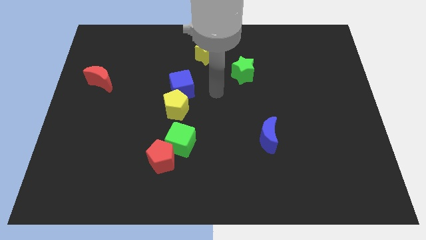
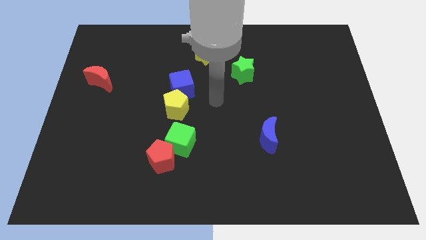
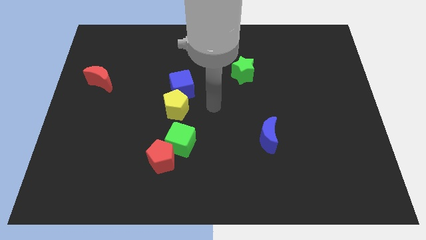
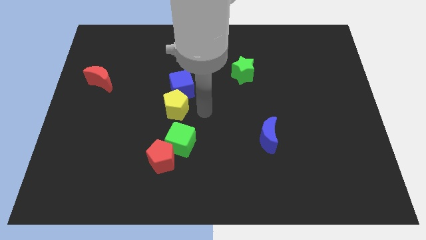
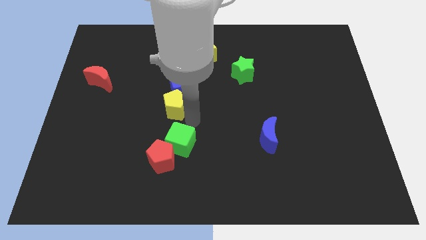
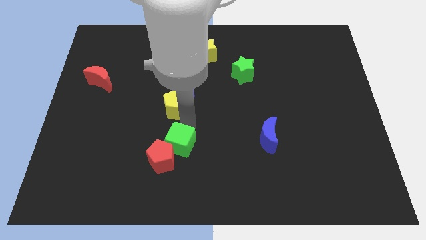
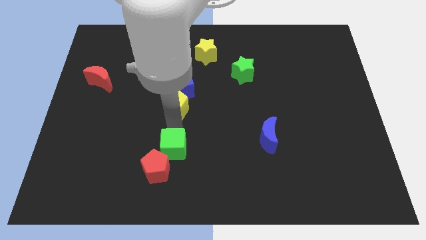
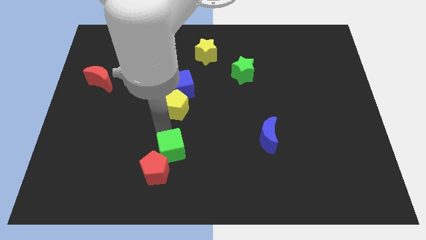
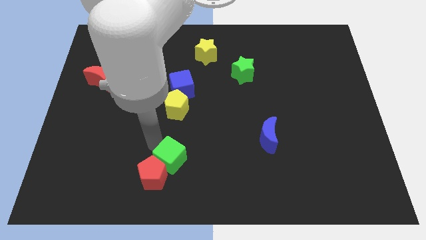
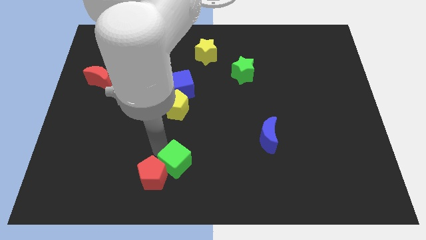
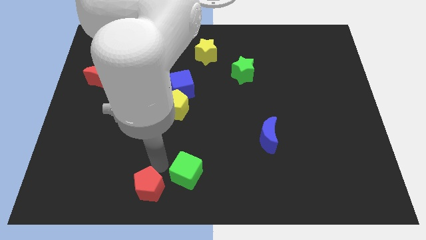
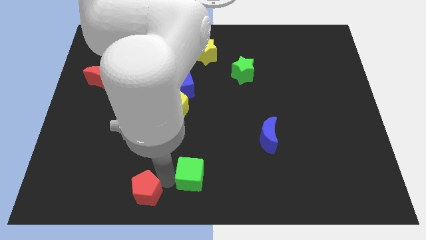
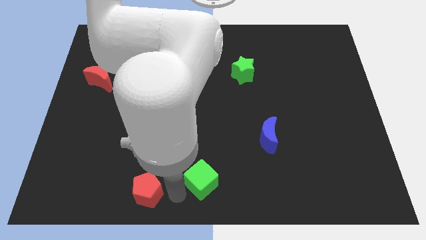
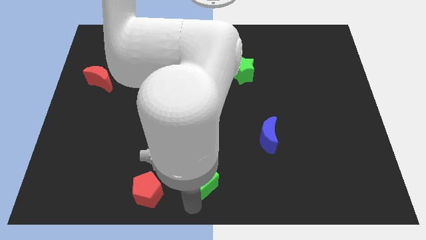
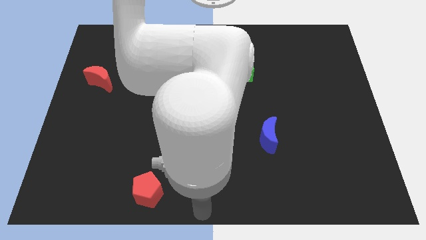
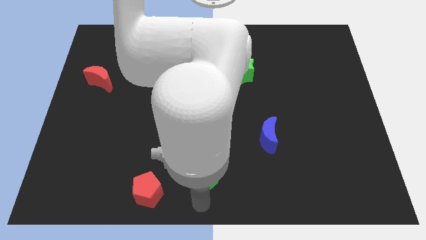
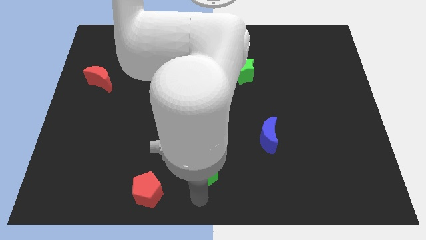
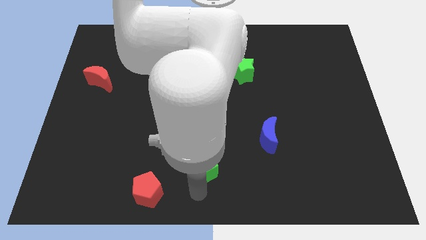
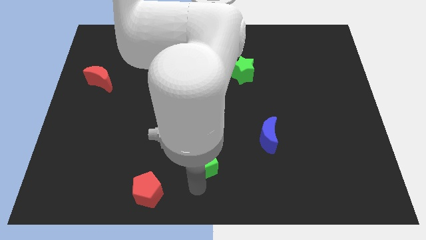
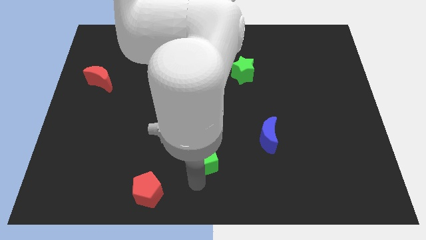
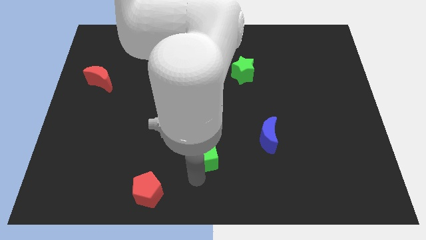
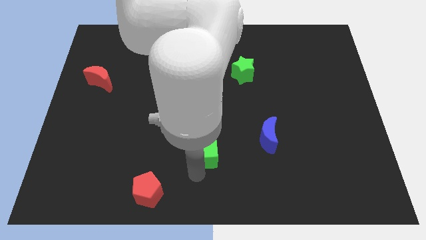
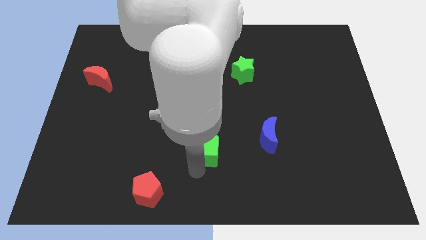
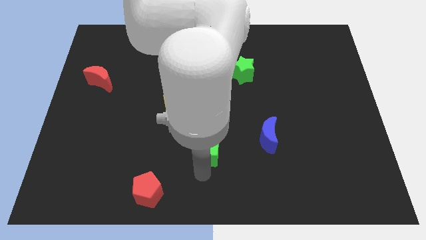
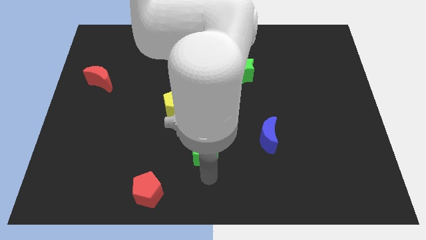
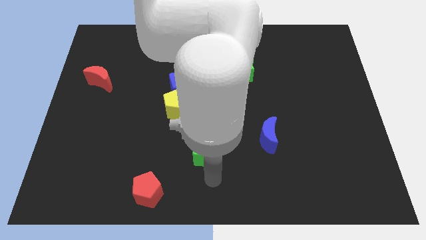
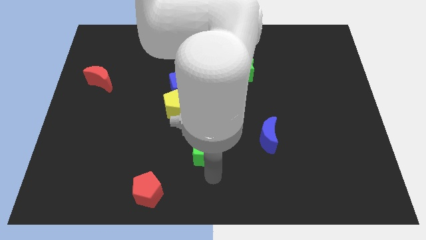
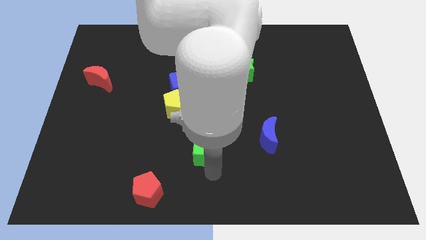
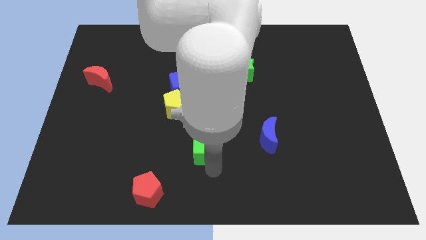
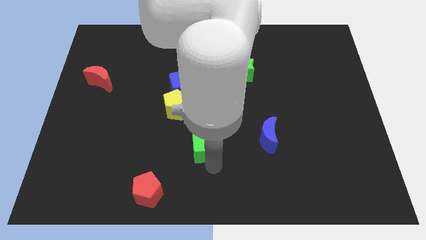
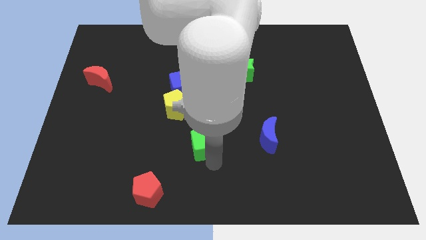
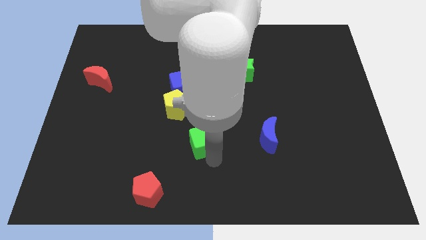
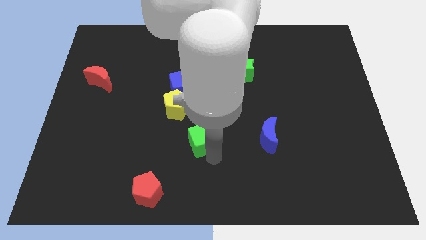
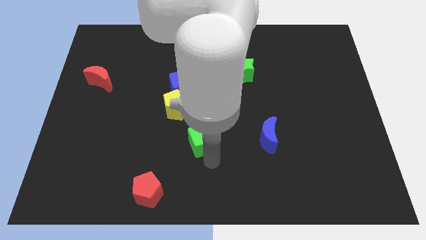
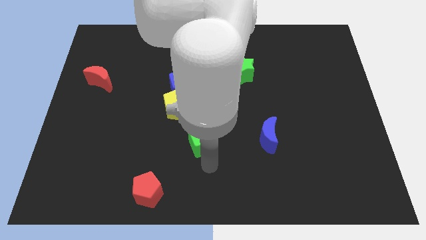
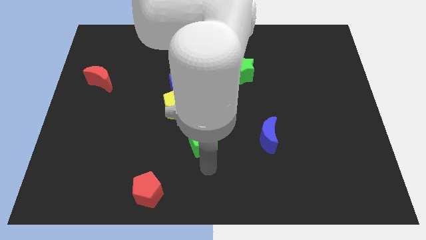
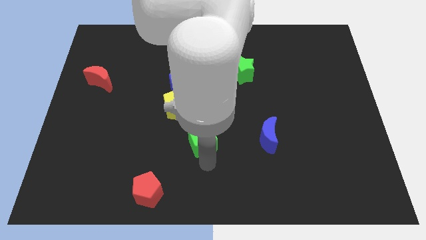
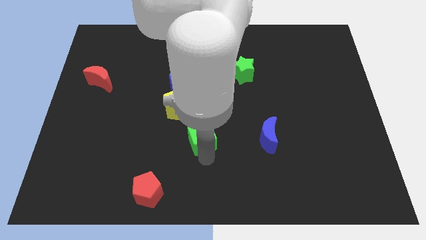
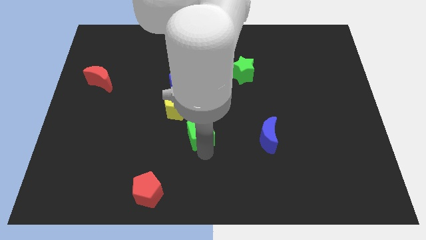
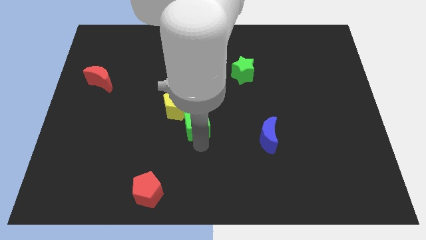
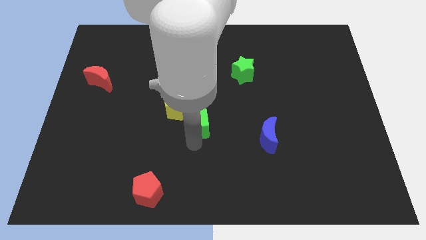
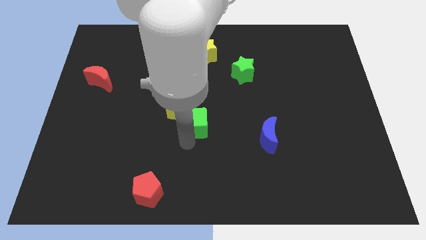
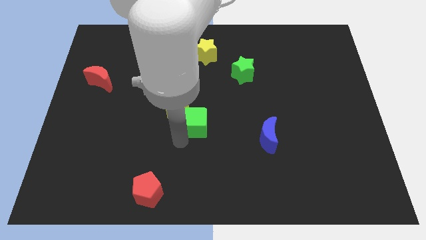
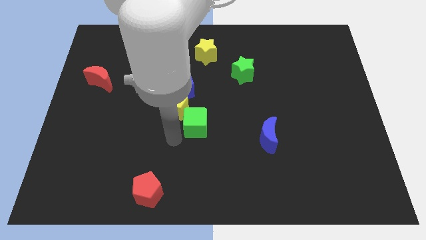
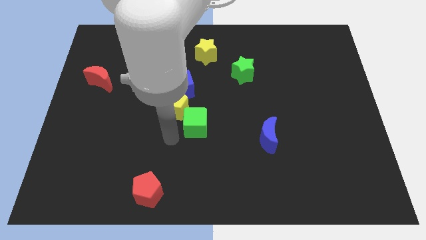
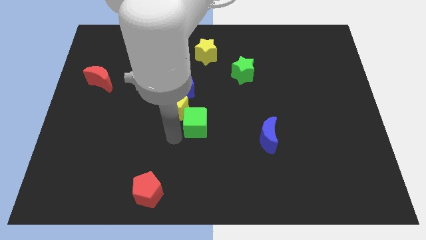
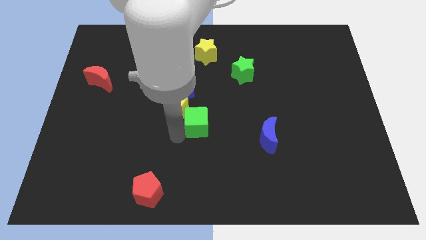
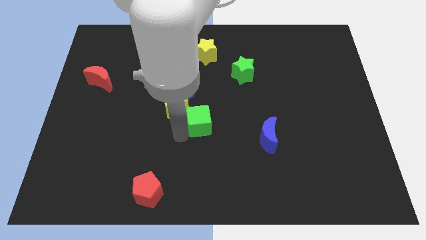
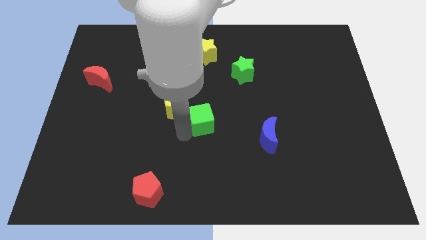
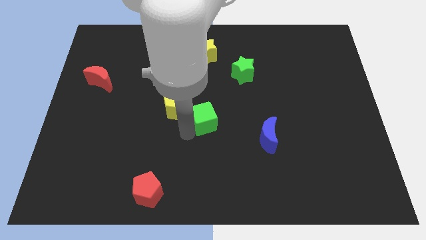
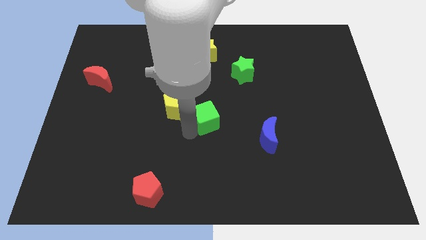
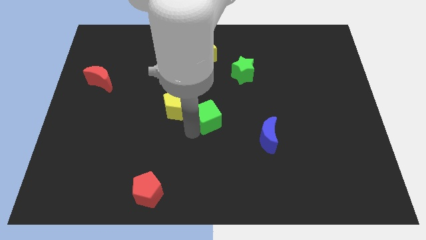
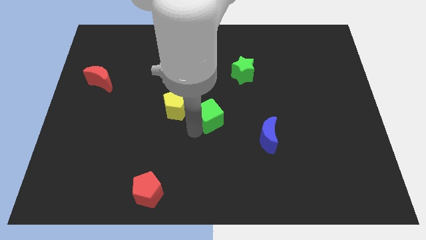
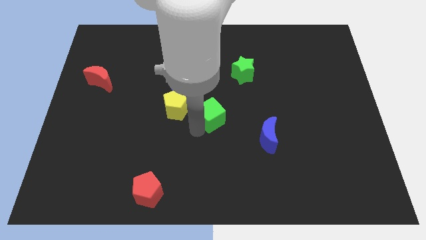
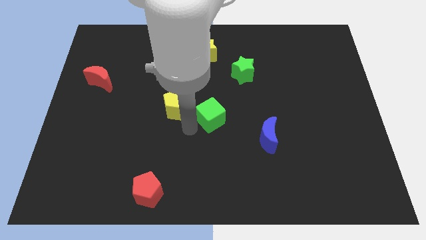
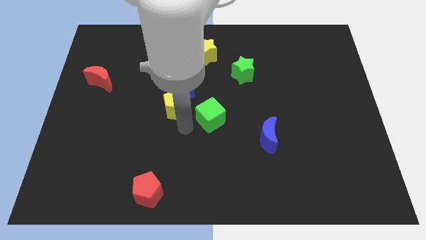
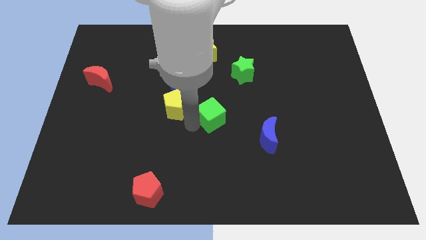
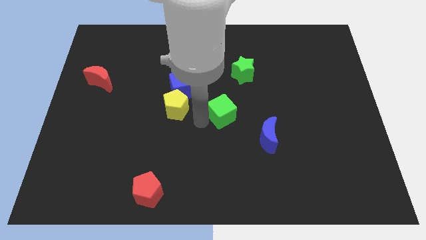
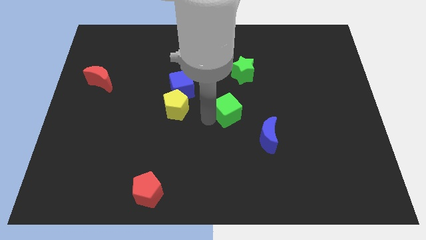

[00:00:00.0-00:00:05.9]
slide the green cube to the bottom of the green star
